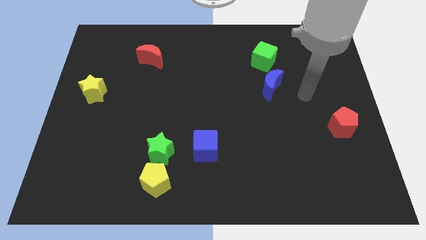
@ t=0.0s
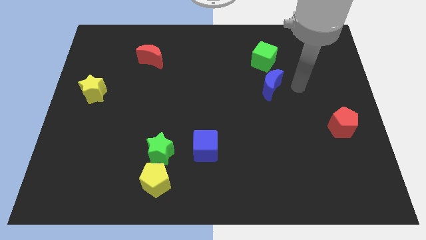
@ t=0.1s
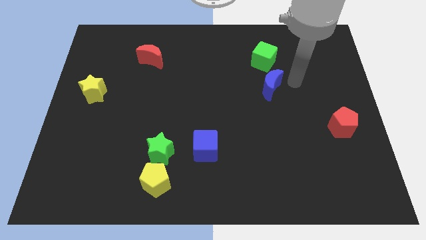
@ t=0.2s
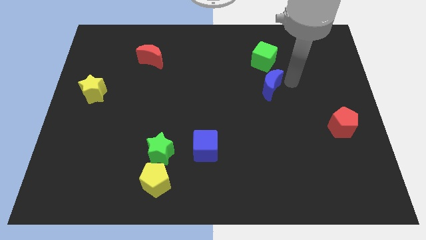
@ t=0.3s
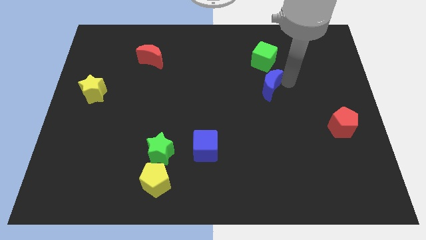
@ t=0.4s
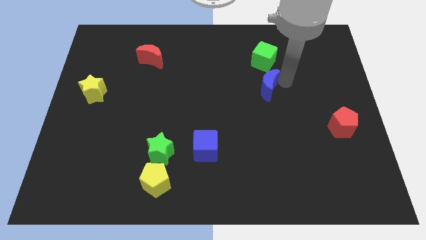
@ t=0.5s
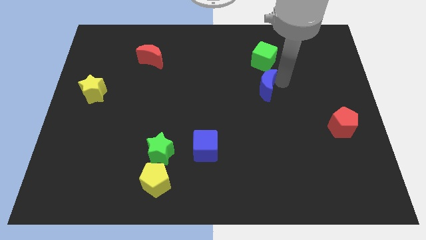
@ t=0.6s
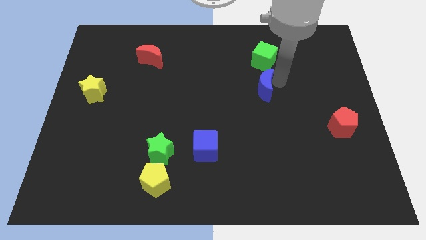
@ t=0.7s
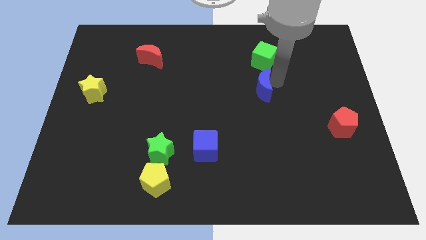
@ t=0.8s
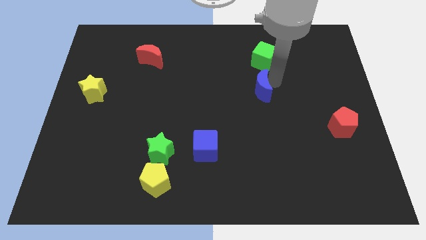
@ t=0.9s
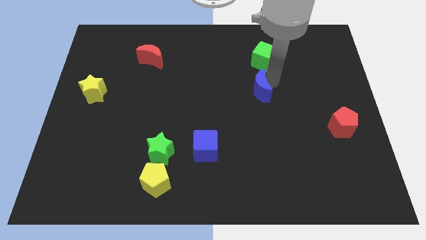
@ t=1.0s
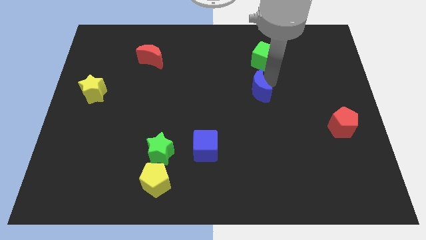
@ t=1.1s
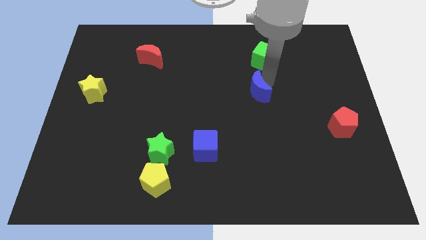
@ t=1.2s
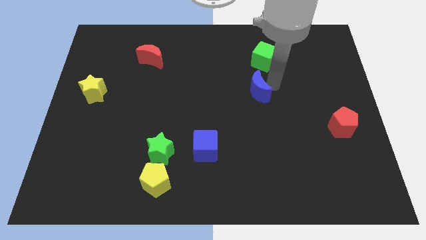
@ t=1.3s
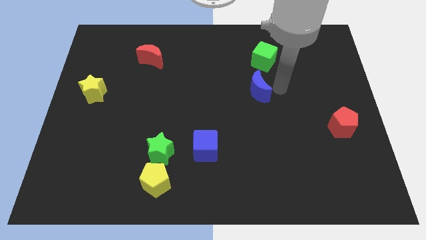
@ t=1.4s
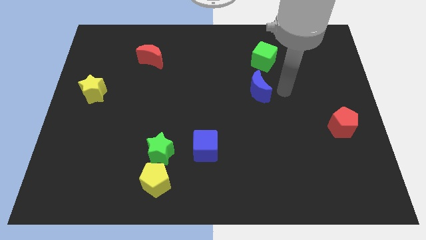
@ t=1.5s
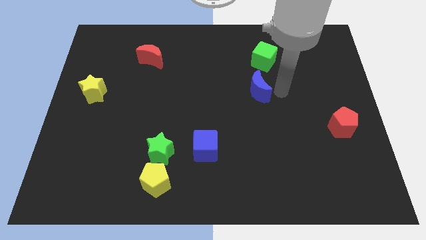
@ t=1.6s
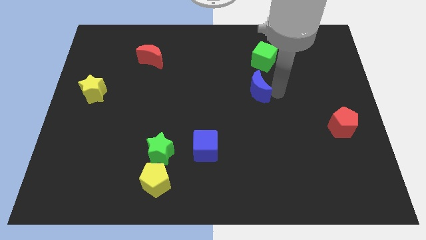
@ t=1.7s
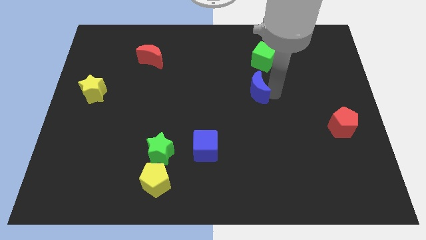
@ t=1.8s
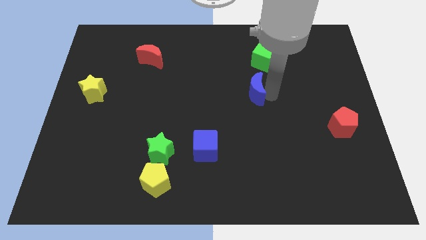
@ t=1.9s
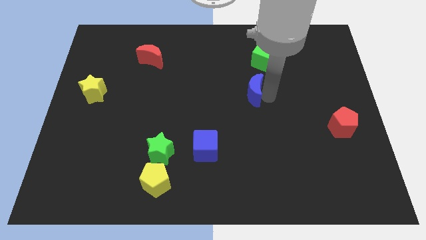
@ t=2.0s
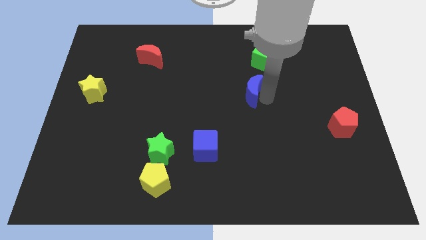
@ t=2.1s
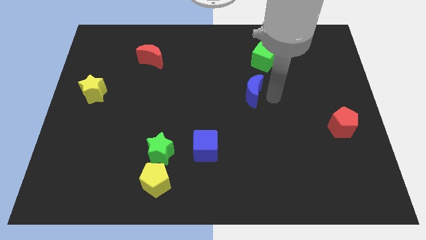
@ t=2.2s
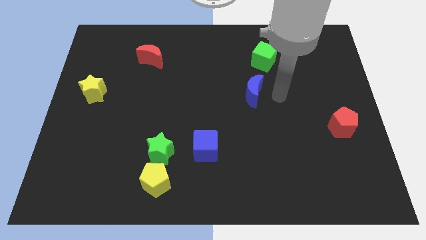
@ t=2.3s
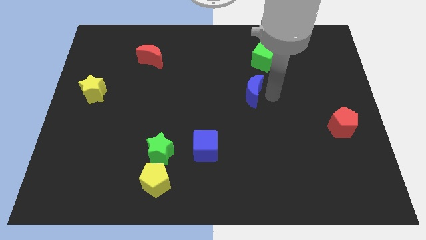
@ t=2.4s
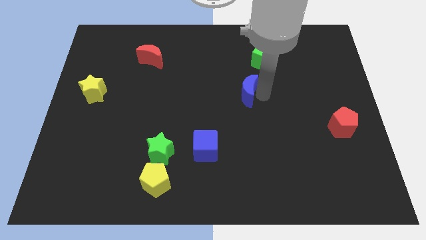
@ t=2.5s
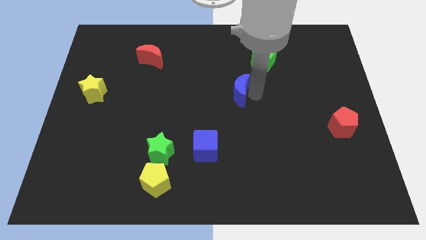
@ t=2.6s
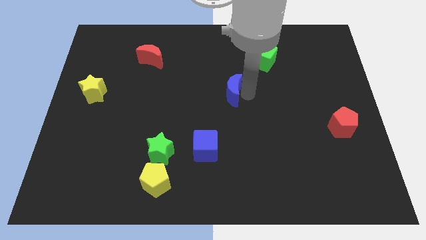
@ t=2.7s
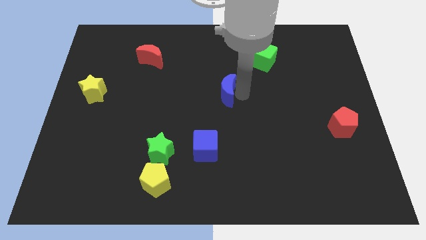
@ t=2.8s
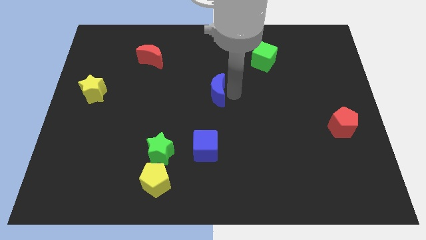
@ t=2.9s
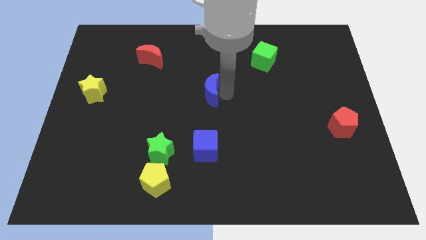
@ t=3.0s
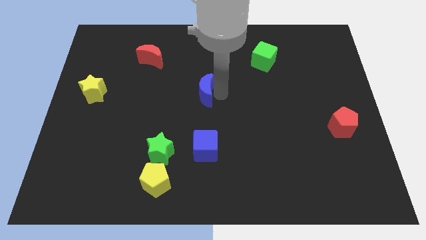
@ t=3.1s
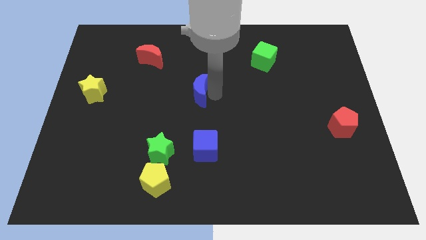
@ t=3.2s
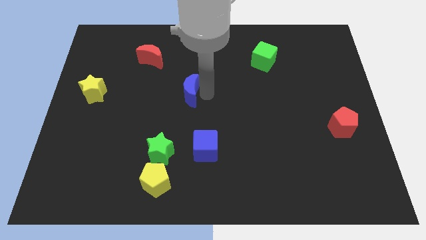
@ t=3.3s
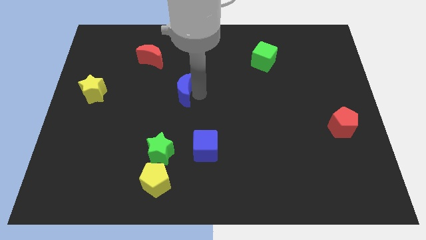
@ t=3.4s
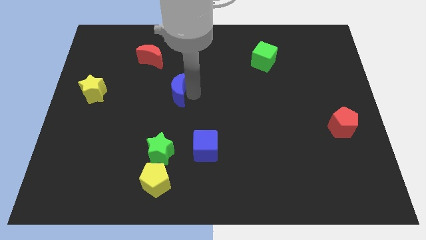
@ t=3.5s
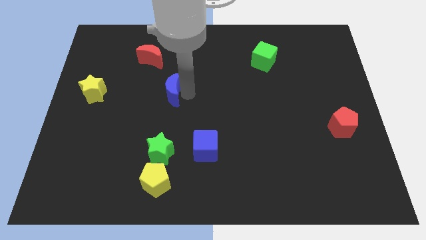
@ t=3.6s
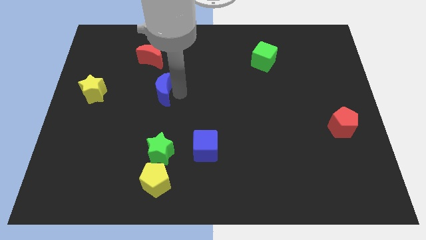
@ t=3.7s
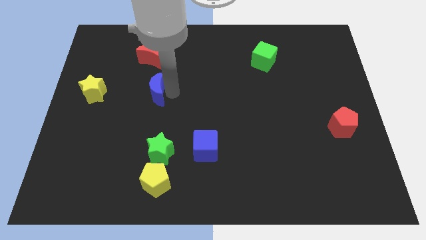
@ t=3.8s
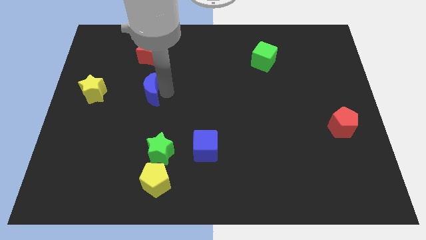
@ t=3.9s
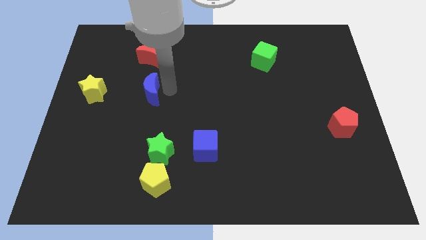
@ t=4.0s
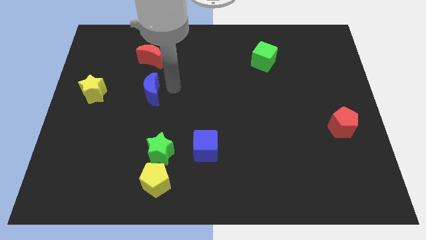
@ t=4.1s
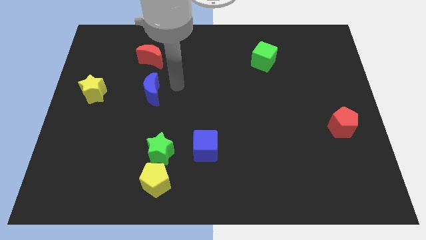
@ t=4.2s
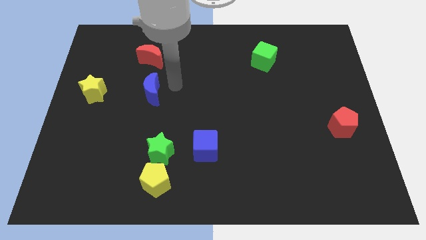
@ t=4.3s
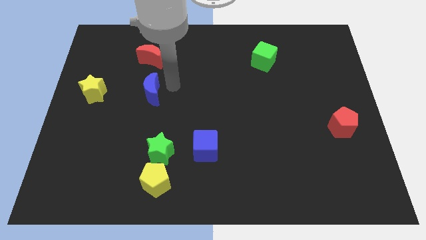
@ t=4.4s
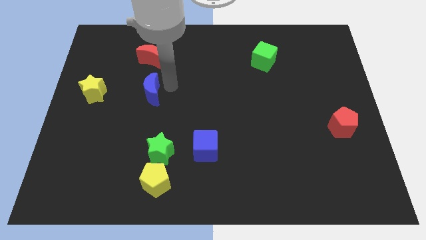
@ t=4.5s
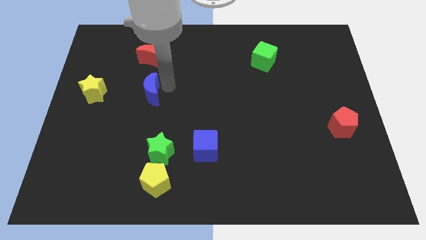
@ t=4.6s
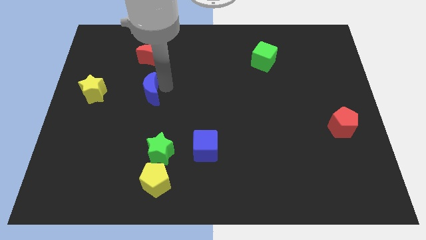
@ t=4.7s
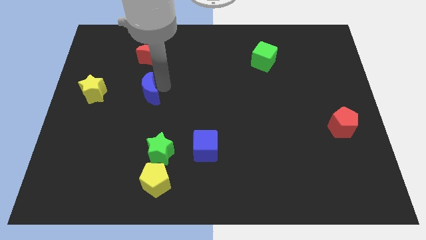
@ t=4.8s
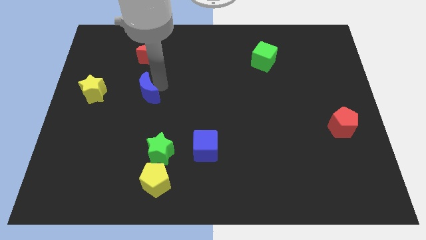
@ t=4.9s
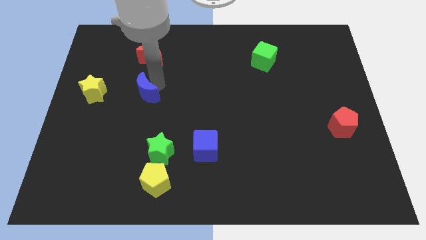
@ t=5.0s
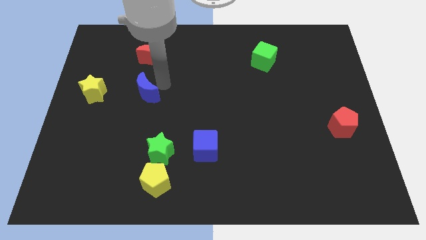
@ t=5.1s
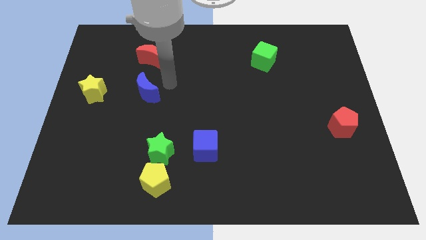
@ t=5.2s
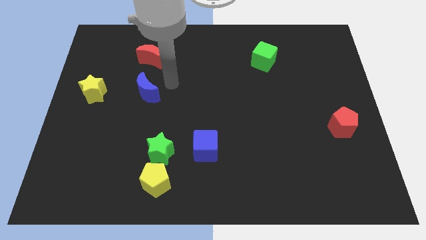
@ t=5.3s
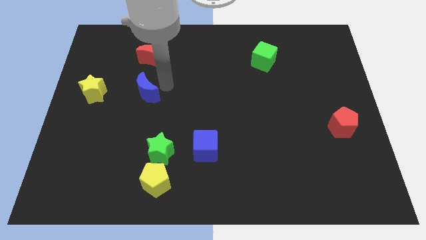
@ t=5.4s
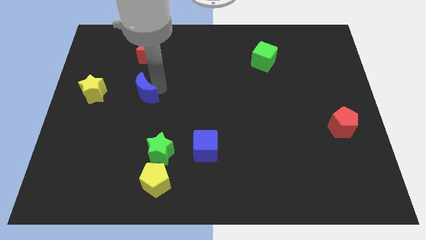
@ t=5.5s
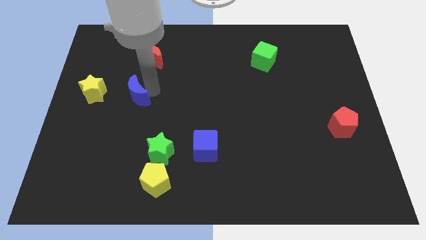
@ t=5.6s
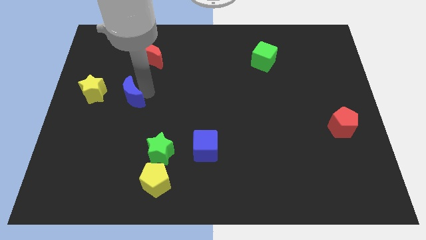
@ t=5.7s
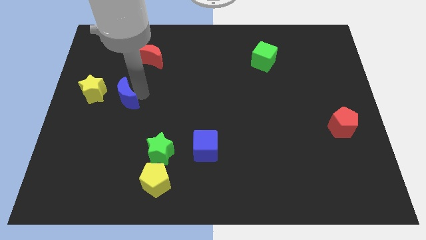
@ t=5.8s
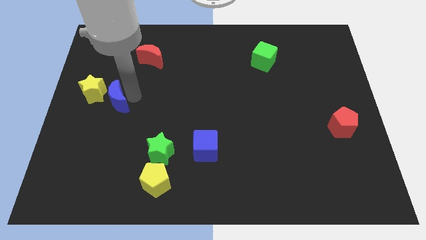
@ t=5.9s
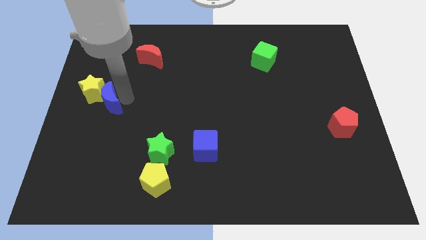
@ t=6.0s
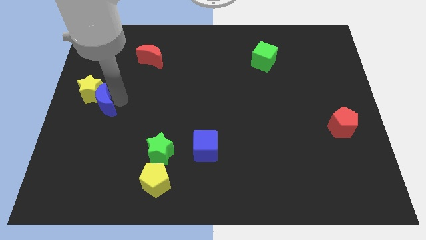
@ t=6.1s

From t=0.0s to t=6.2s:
move the blue moon to the center left

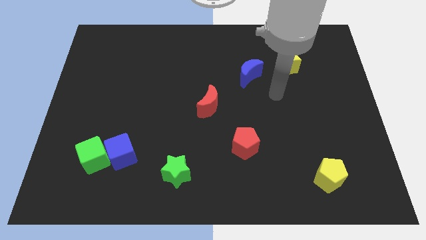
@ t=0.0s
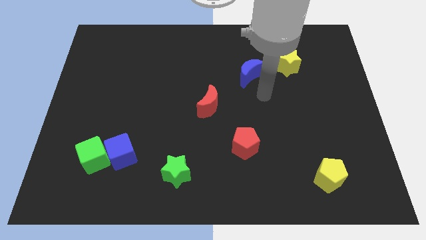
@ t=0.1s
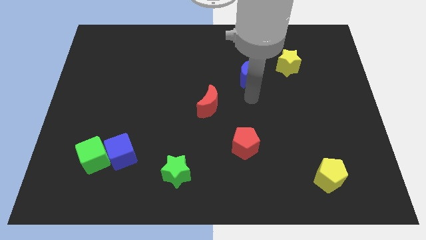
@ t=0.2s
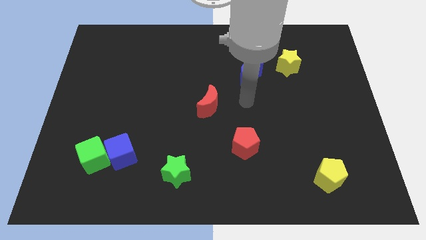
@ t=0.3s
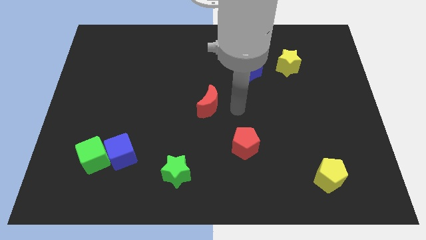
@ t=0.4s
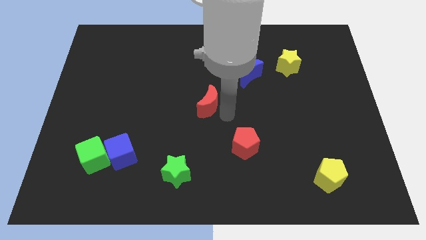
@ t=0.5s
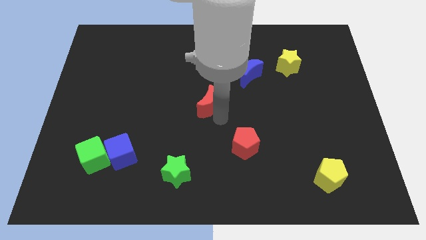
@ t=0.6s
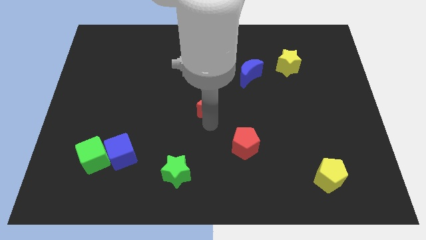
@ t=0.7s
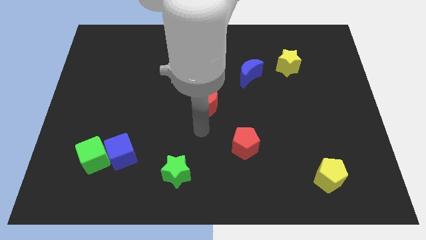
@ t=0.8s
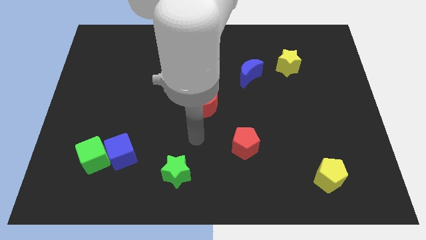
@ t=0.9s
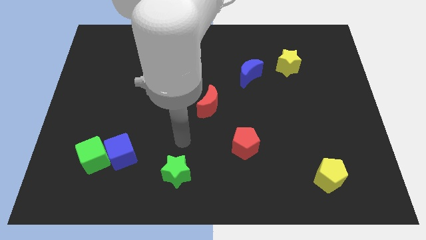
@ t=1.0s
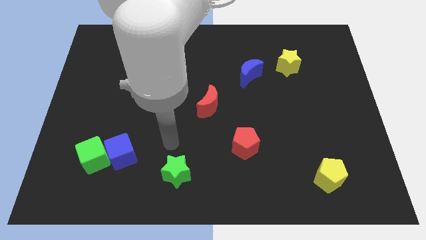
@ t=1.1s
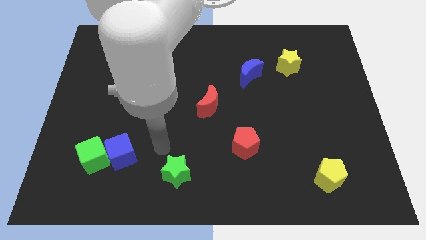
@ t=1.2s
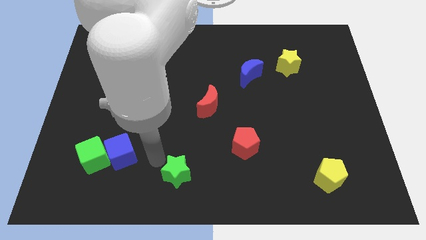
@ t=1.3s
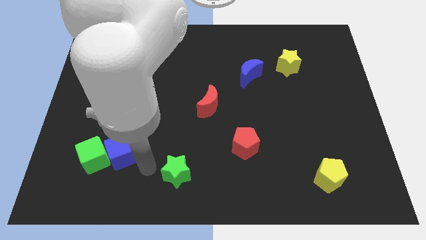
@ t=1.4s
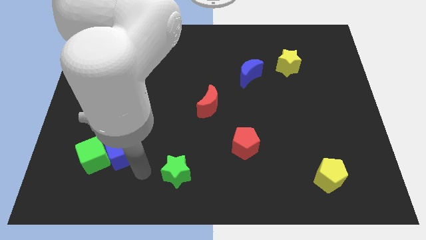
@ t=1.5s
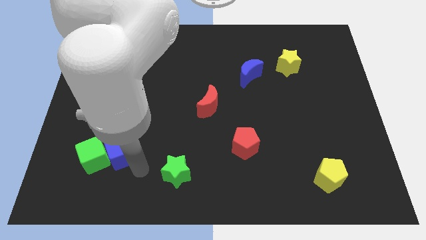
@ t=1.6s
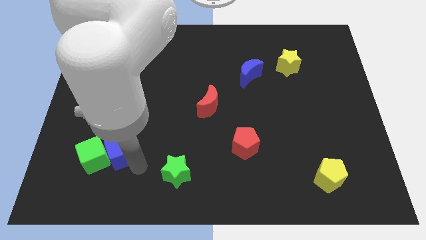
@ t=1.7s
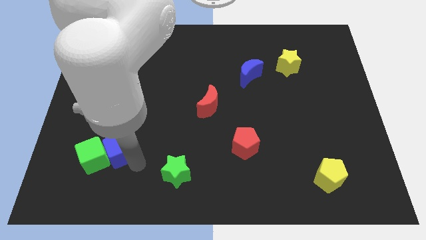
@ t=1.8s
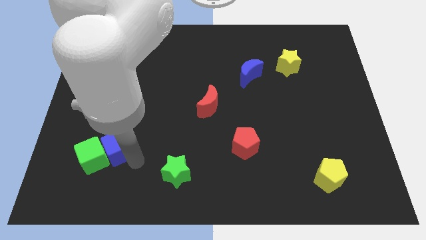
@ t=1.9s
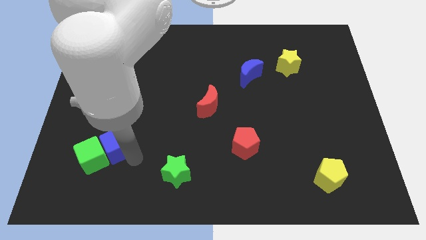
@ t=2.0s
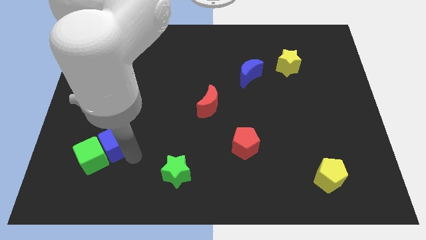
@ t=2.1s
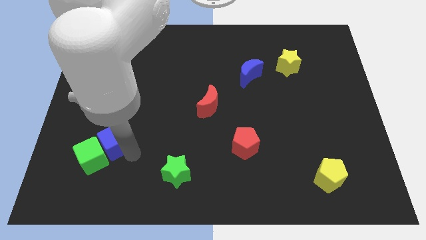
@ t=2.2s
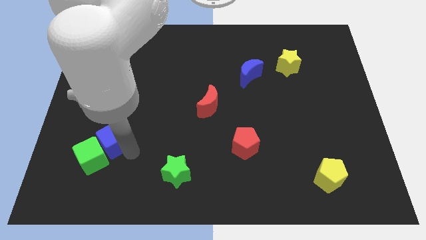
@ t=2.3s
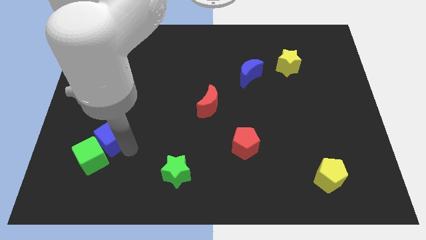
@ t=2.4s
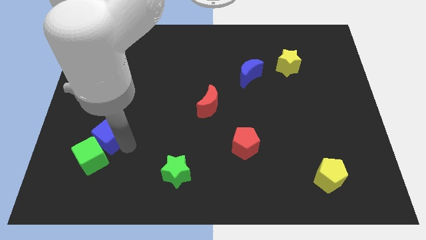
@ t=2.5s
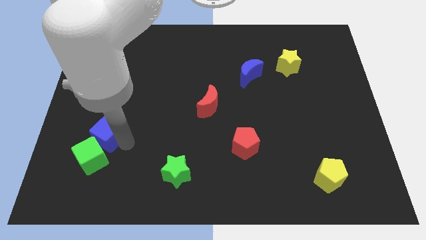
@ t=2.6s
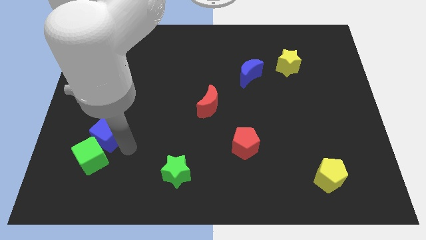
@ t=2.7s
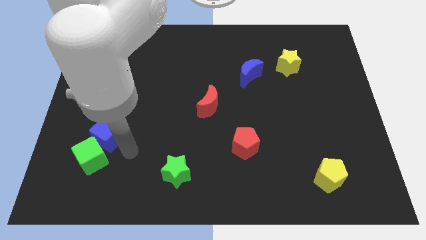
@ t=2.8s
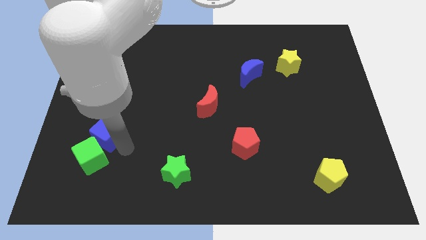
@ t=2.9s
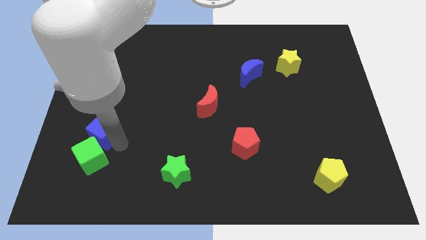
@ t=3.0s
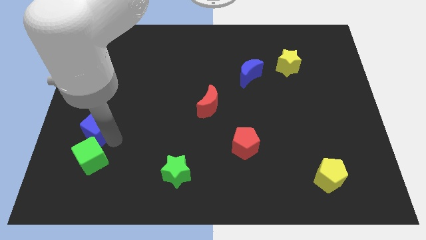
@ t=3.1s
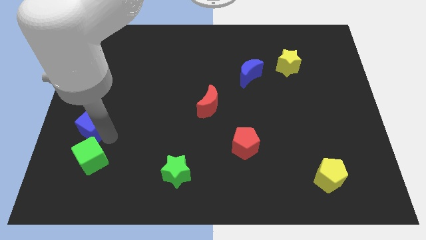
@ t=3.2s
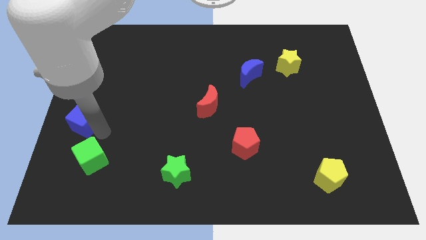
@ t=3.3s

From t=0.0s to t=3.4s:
slide the blue cube to the left side of the board
